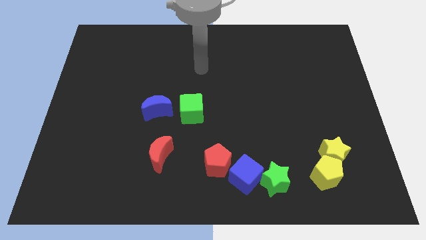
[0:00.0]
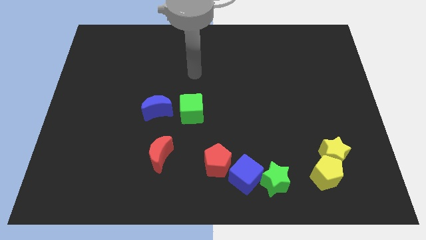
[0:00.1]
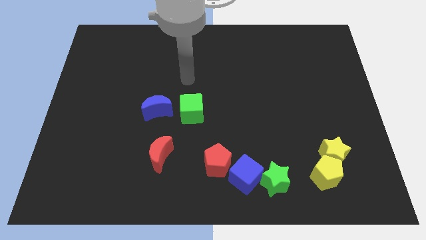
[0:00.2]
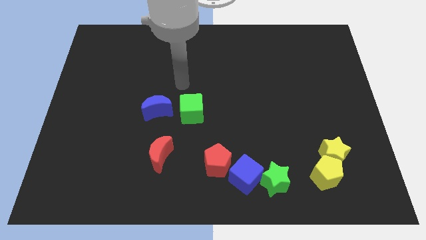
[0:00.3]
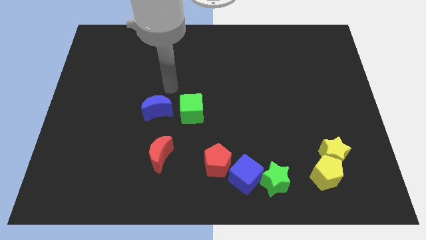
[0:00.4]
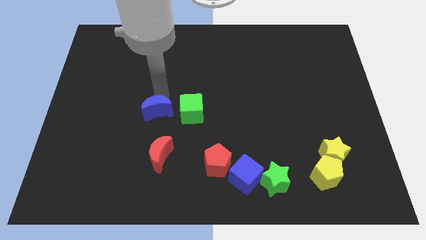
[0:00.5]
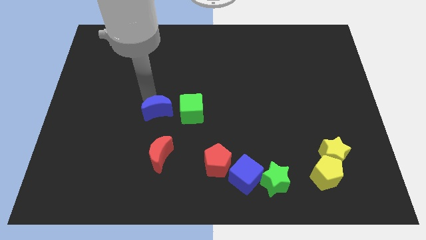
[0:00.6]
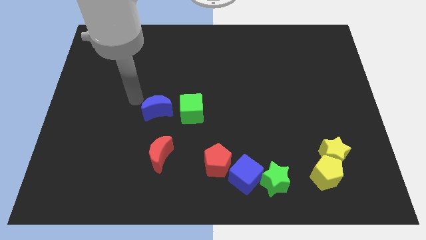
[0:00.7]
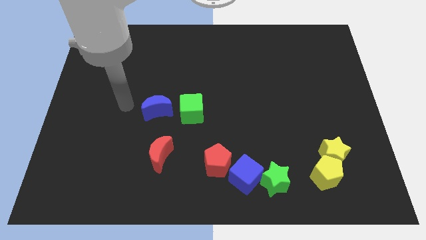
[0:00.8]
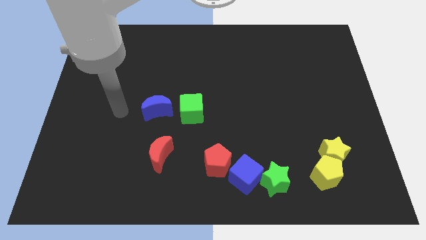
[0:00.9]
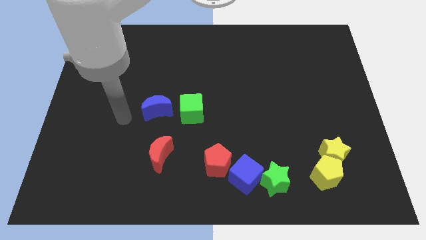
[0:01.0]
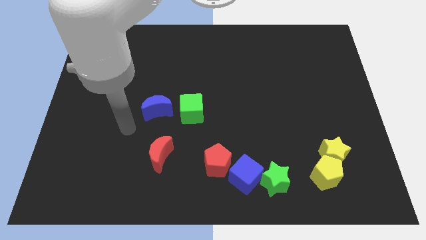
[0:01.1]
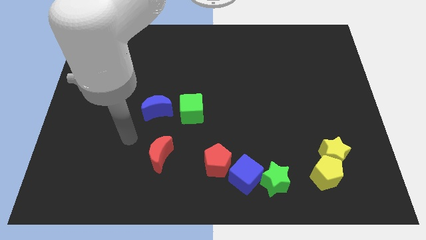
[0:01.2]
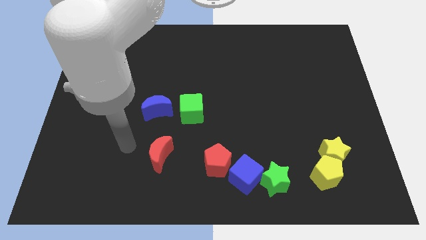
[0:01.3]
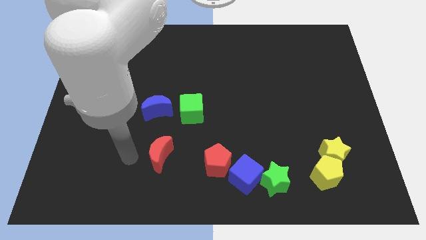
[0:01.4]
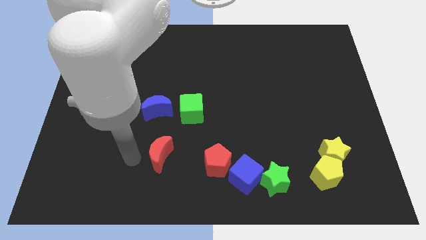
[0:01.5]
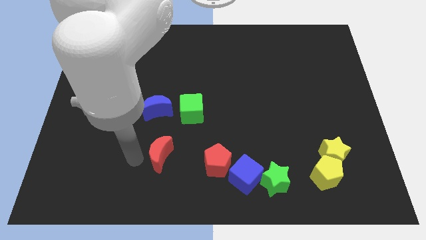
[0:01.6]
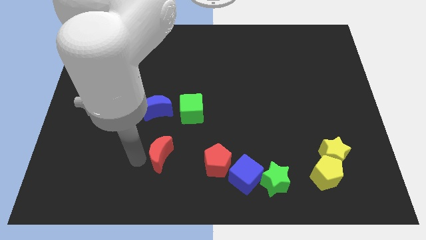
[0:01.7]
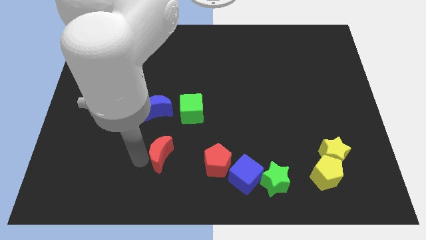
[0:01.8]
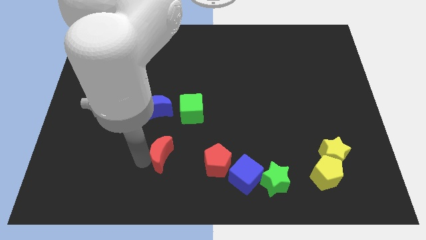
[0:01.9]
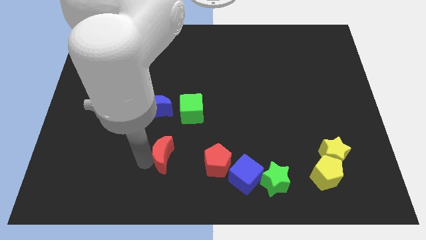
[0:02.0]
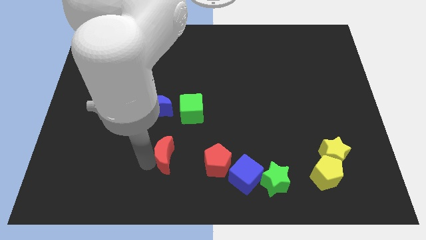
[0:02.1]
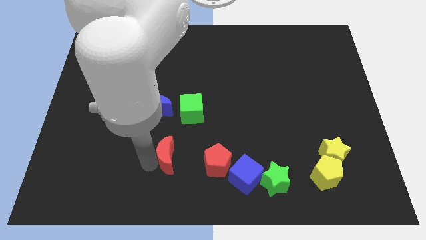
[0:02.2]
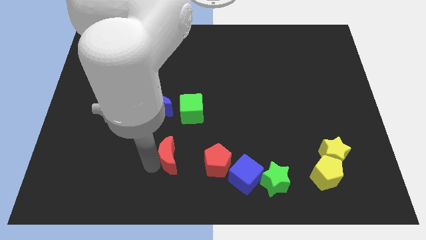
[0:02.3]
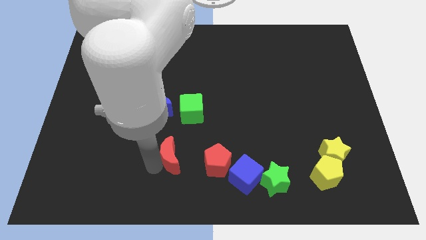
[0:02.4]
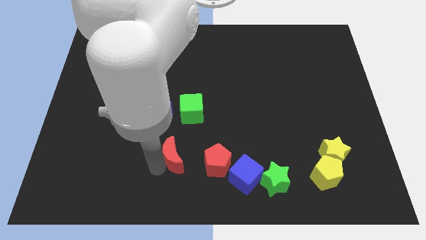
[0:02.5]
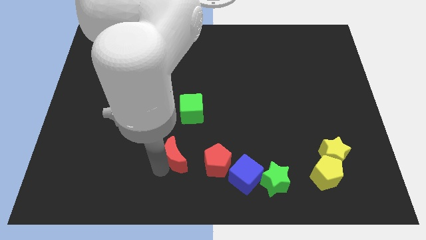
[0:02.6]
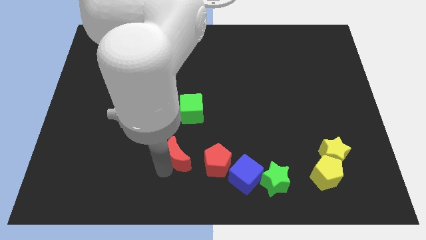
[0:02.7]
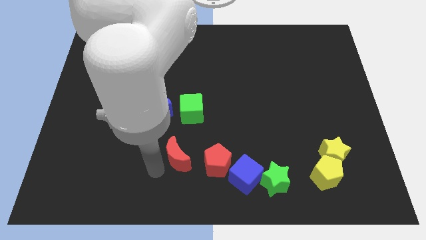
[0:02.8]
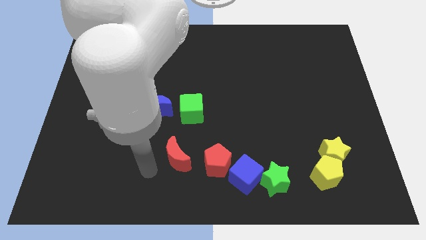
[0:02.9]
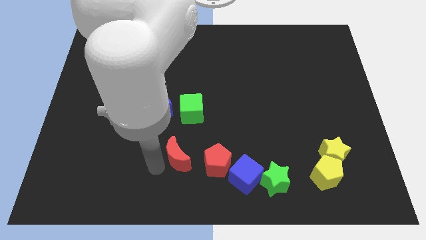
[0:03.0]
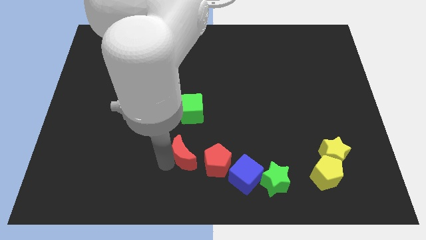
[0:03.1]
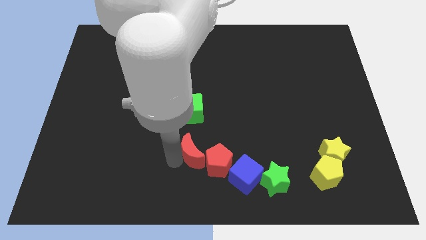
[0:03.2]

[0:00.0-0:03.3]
move the red moon a little bit to the right

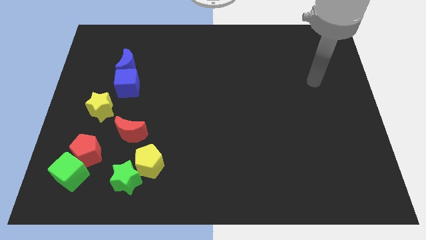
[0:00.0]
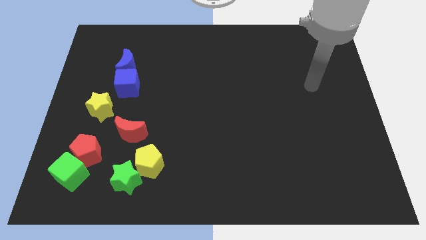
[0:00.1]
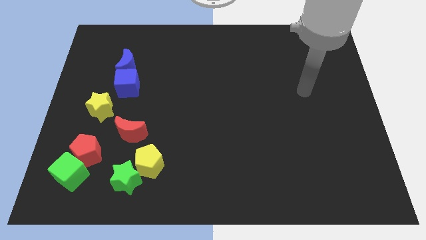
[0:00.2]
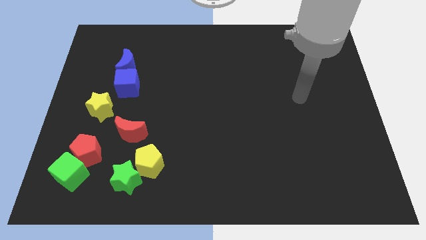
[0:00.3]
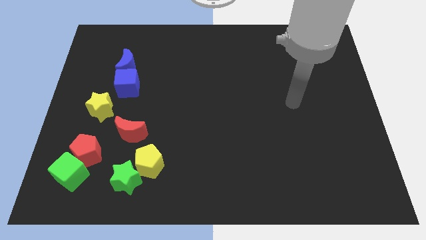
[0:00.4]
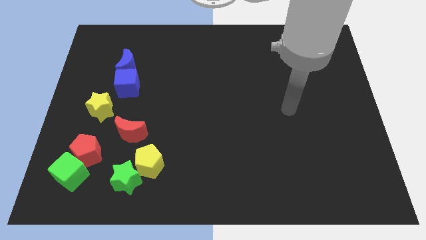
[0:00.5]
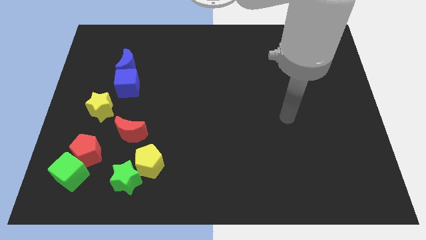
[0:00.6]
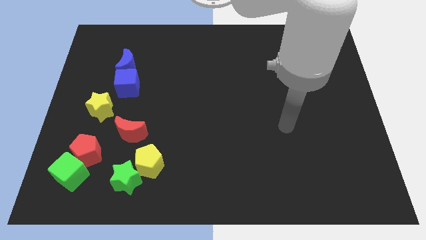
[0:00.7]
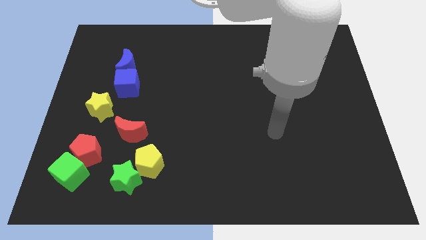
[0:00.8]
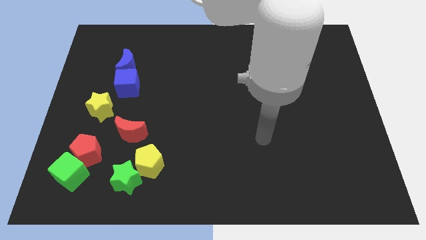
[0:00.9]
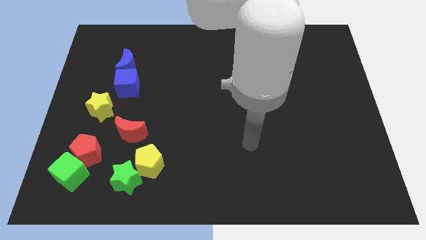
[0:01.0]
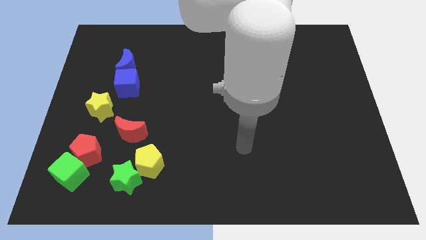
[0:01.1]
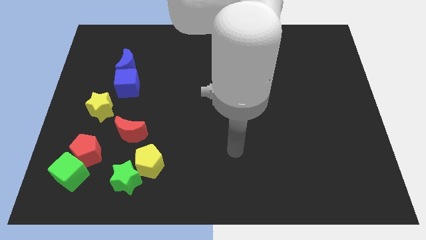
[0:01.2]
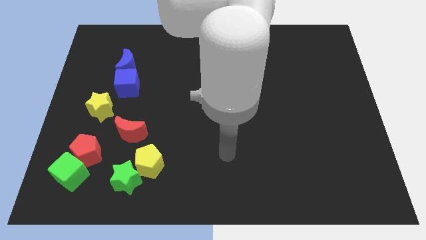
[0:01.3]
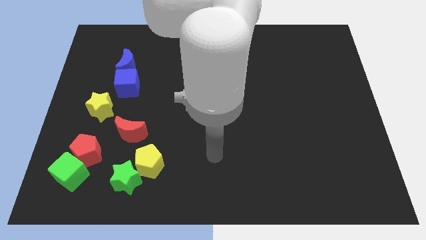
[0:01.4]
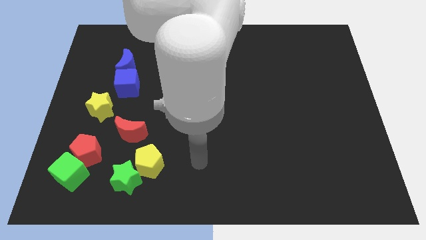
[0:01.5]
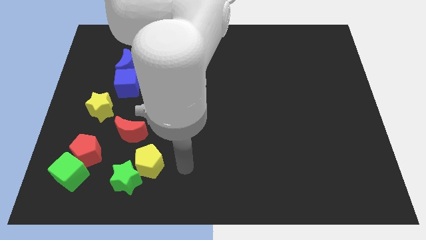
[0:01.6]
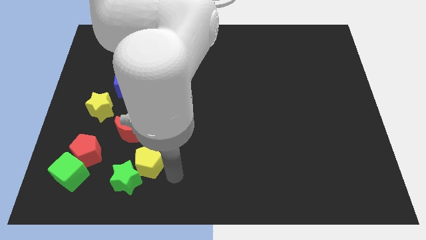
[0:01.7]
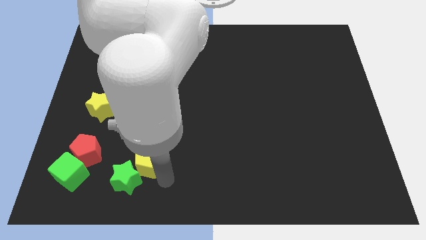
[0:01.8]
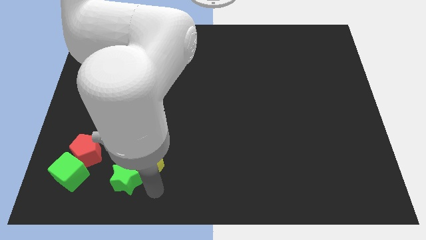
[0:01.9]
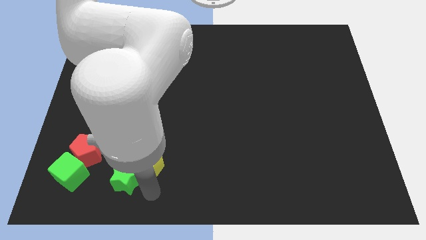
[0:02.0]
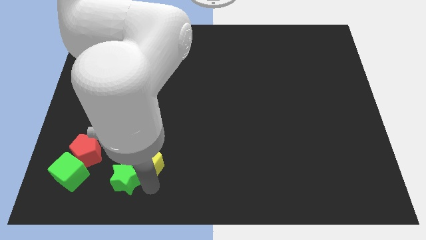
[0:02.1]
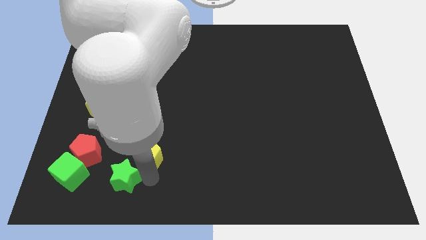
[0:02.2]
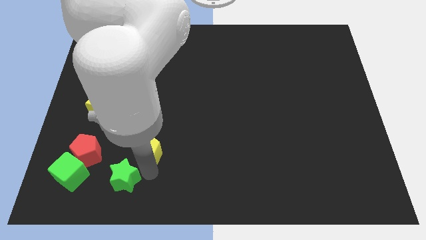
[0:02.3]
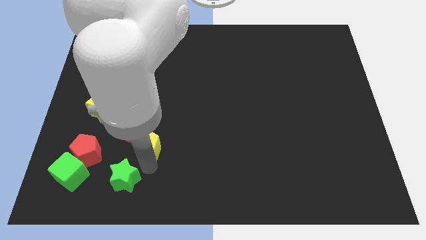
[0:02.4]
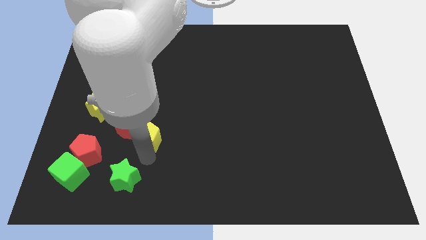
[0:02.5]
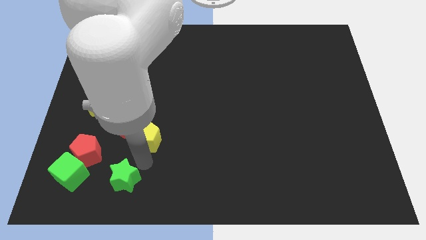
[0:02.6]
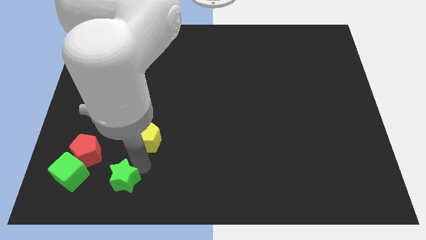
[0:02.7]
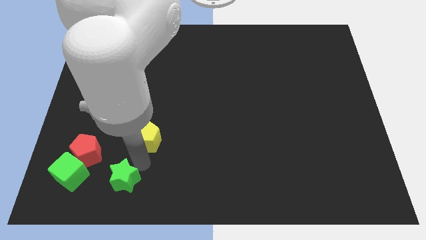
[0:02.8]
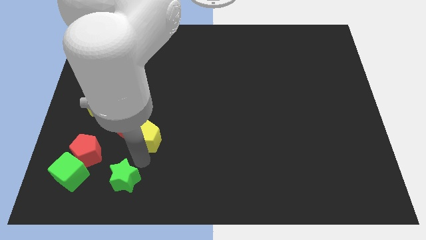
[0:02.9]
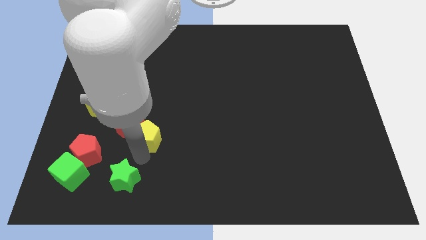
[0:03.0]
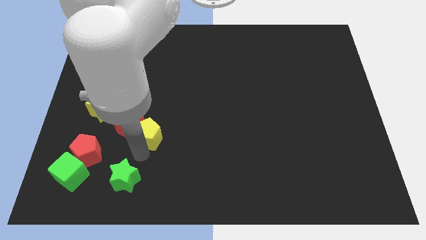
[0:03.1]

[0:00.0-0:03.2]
move the yellow pentagon upwards a little

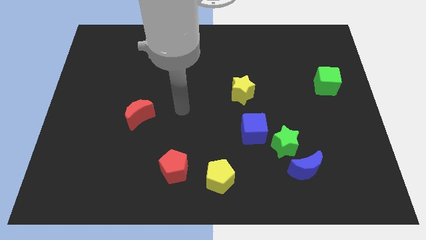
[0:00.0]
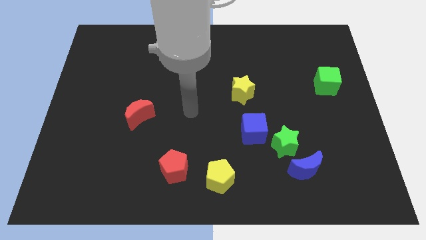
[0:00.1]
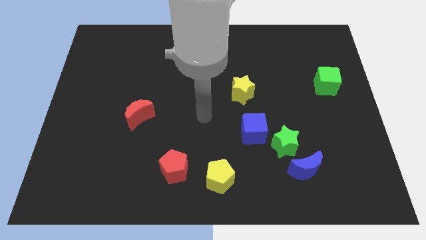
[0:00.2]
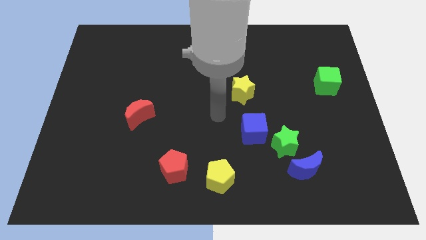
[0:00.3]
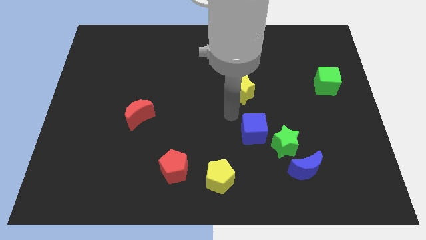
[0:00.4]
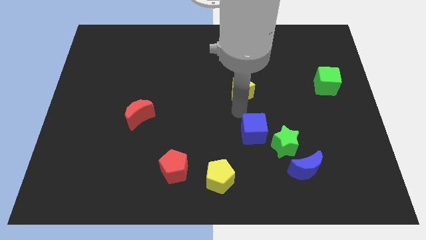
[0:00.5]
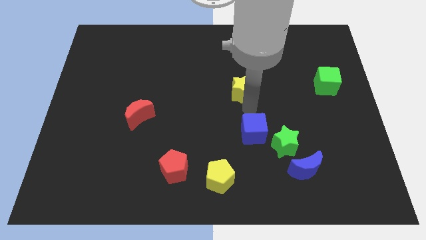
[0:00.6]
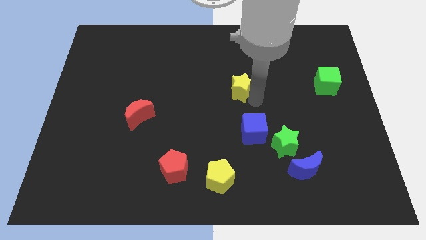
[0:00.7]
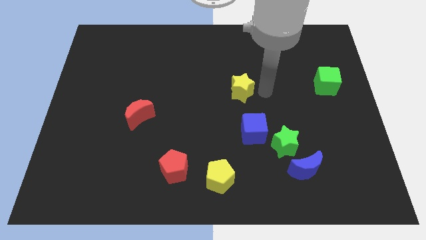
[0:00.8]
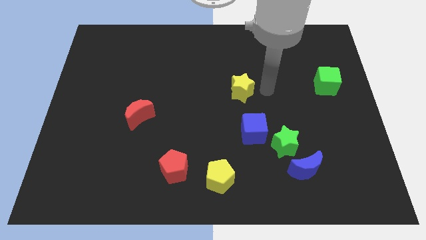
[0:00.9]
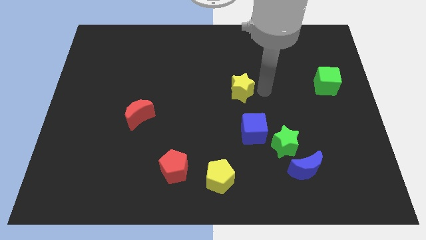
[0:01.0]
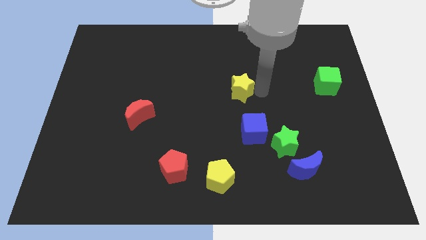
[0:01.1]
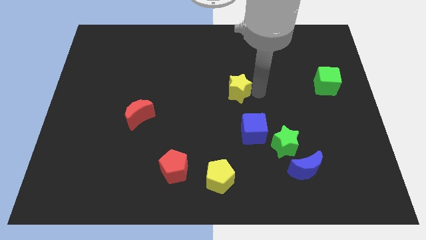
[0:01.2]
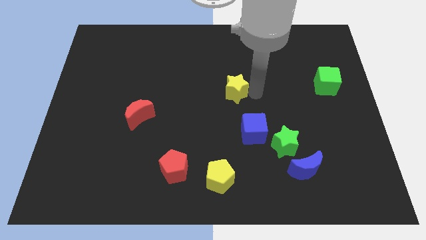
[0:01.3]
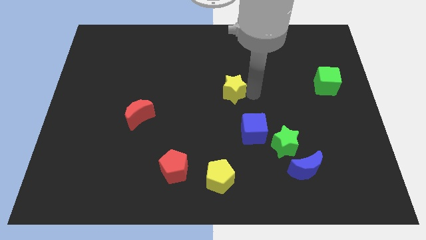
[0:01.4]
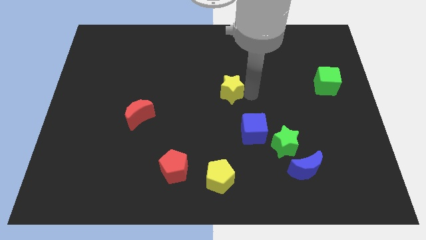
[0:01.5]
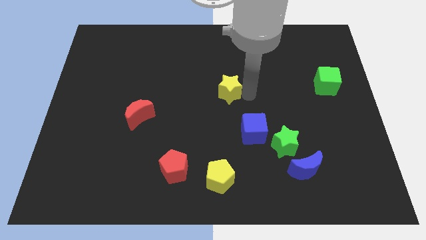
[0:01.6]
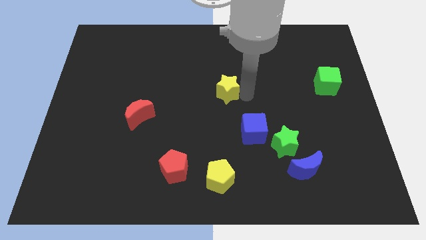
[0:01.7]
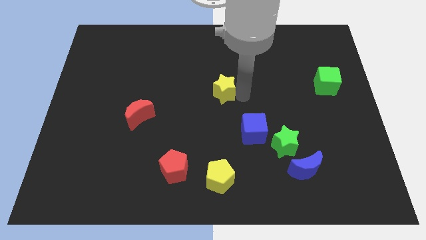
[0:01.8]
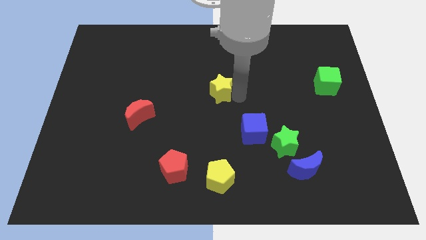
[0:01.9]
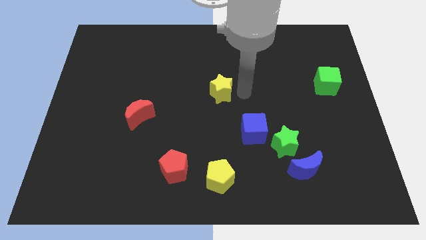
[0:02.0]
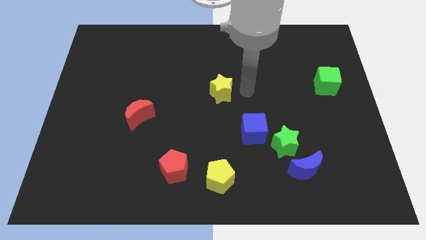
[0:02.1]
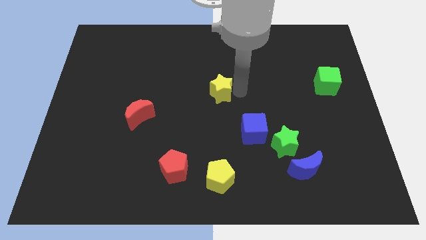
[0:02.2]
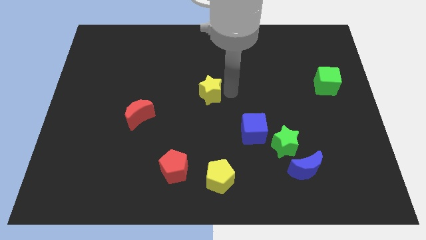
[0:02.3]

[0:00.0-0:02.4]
slide the yellow star to the left a little bit
